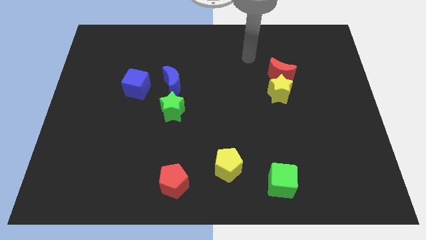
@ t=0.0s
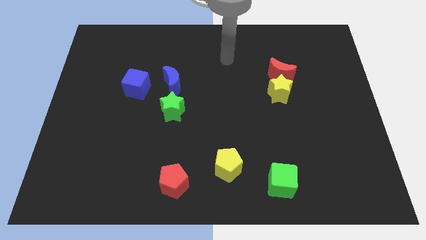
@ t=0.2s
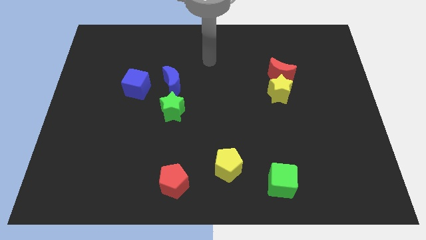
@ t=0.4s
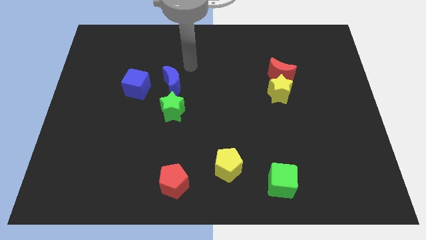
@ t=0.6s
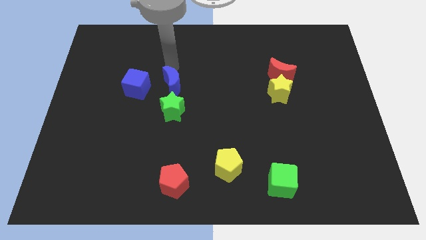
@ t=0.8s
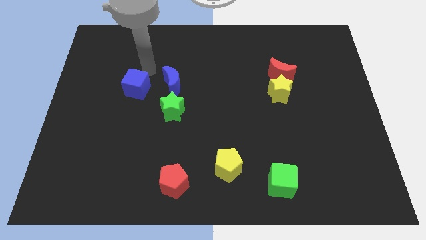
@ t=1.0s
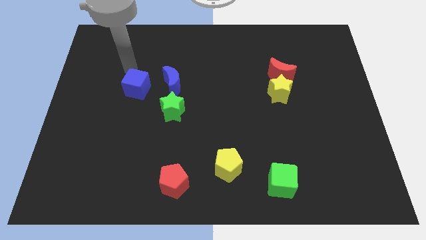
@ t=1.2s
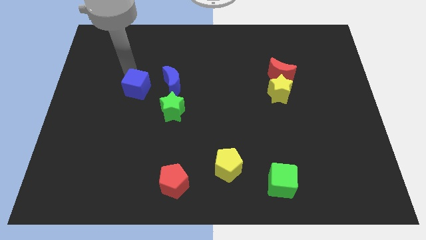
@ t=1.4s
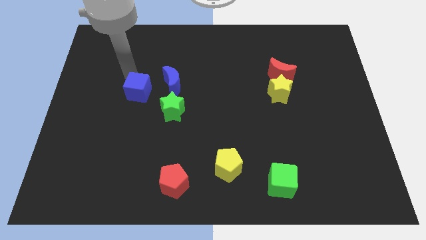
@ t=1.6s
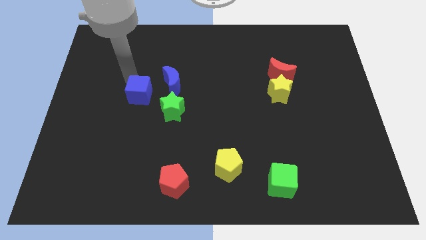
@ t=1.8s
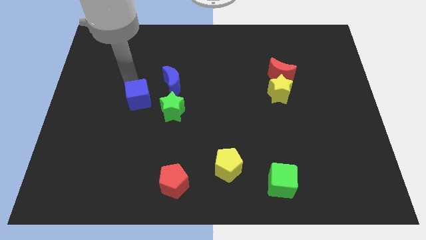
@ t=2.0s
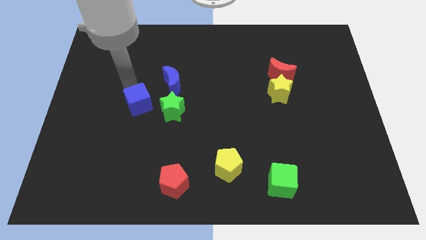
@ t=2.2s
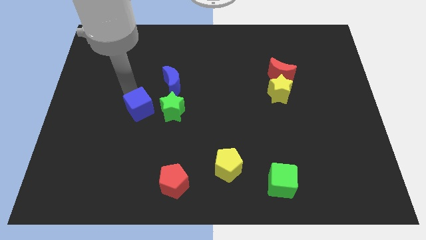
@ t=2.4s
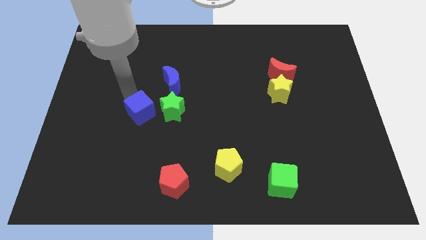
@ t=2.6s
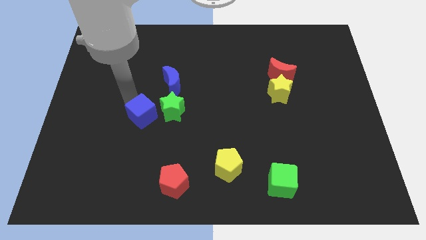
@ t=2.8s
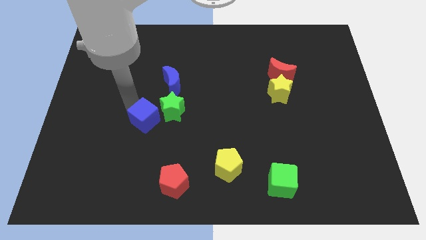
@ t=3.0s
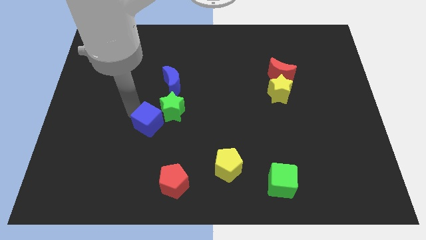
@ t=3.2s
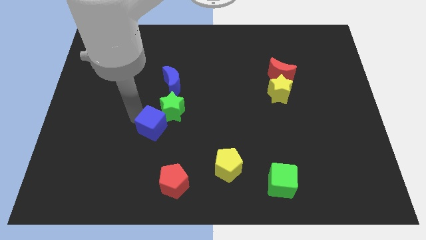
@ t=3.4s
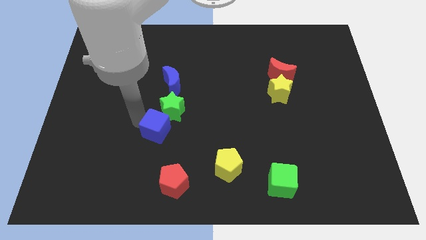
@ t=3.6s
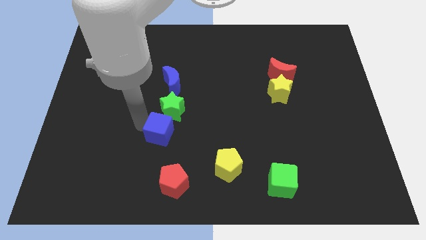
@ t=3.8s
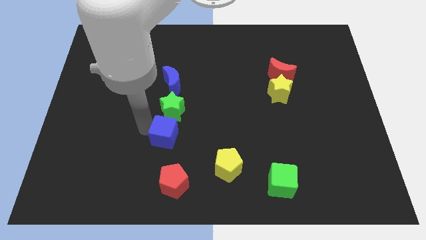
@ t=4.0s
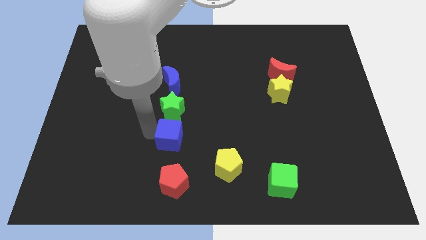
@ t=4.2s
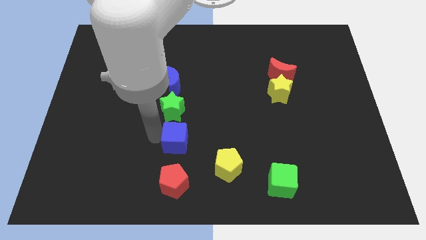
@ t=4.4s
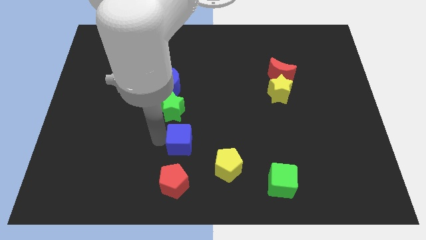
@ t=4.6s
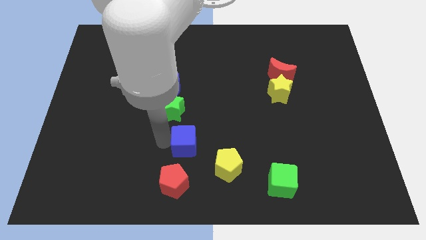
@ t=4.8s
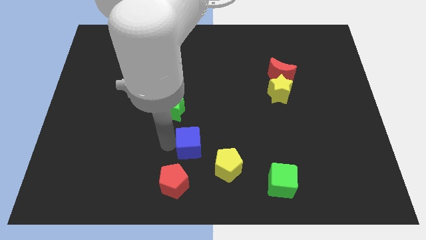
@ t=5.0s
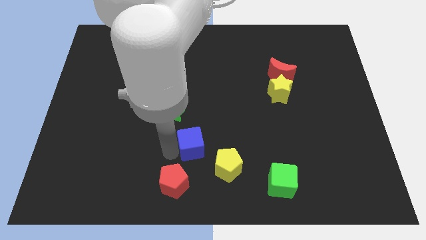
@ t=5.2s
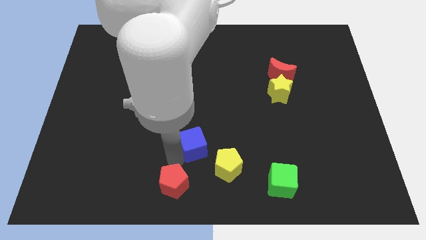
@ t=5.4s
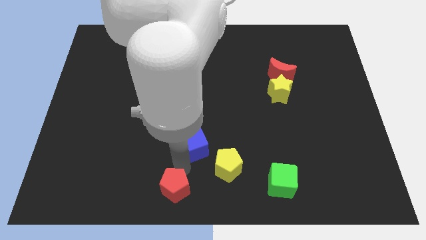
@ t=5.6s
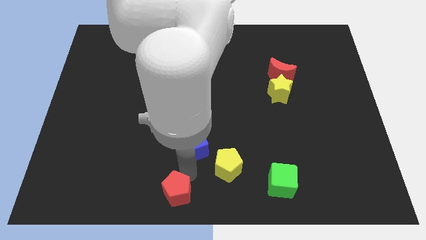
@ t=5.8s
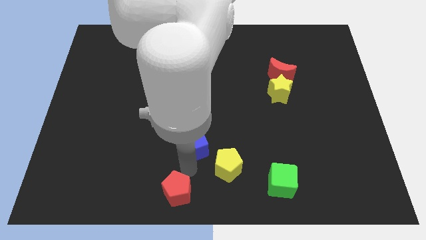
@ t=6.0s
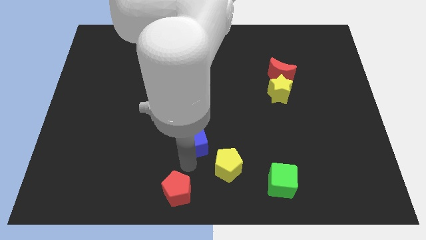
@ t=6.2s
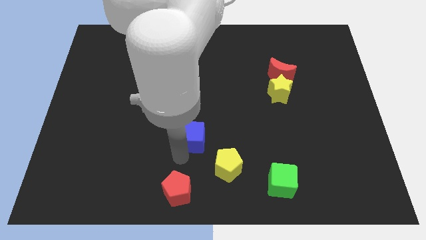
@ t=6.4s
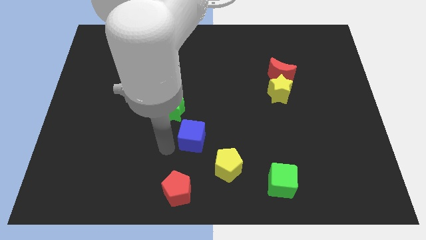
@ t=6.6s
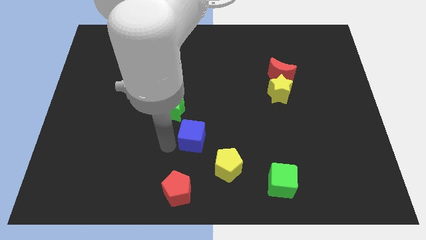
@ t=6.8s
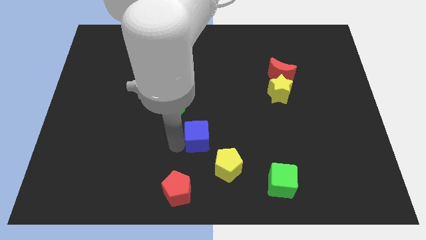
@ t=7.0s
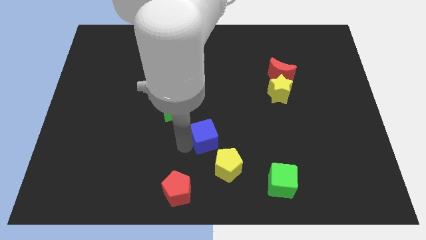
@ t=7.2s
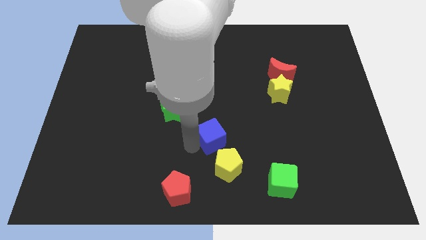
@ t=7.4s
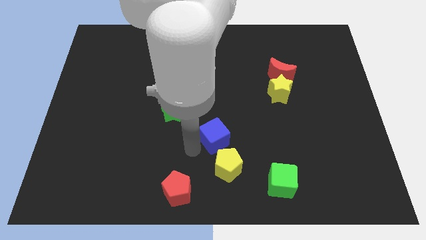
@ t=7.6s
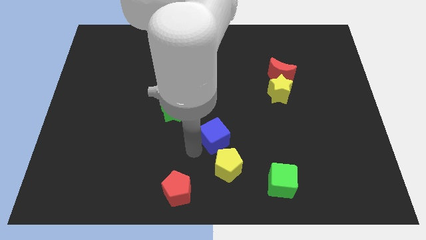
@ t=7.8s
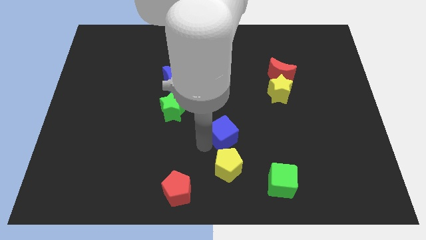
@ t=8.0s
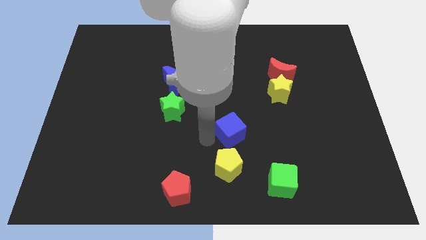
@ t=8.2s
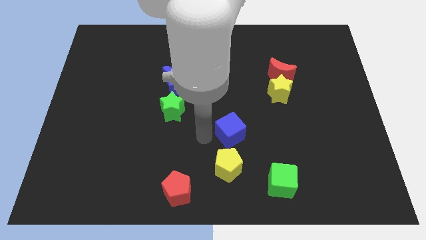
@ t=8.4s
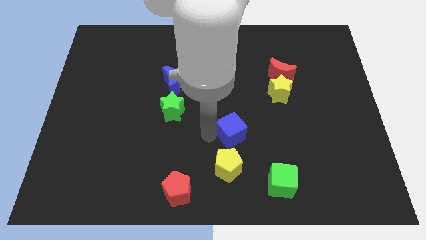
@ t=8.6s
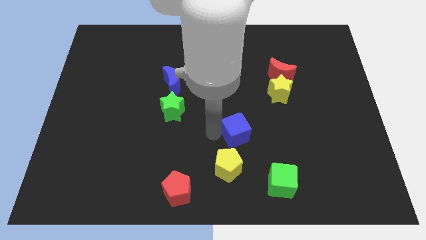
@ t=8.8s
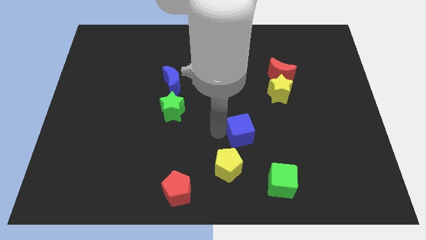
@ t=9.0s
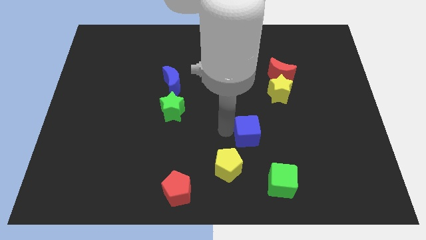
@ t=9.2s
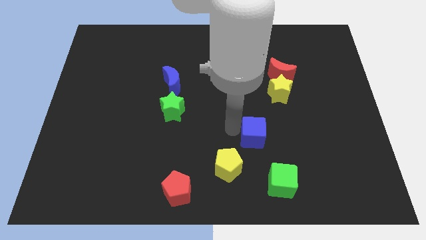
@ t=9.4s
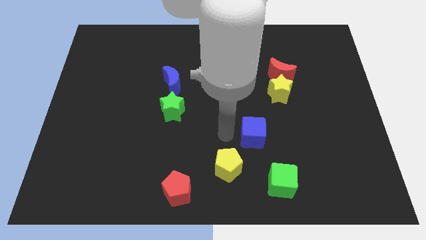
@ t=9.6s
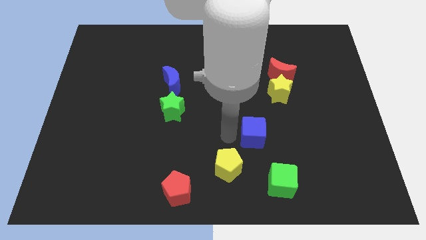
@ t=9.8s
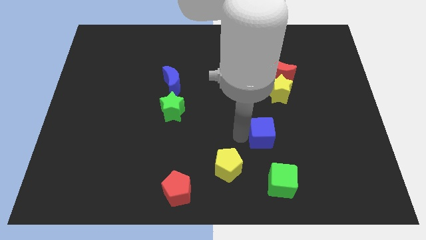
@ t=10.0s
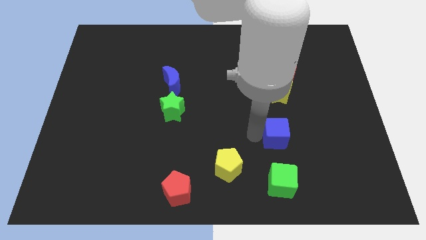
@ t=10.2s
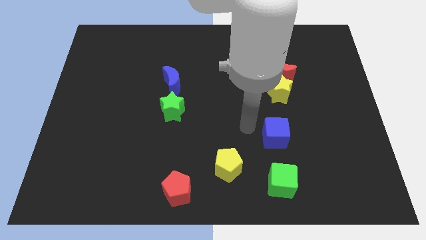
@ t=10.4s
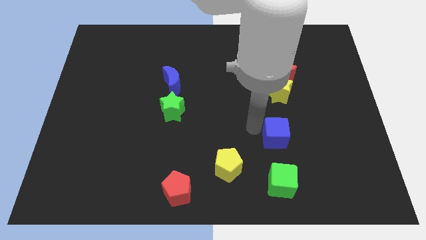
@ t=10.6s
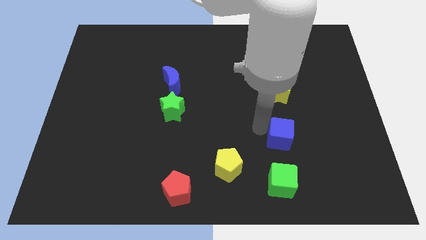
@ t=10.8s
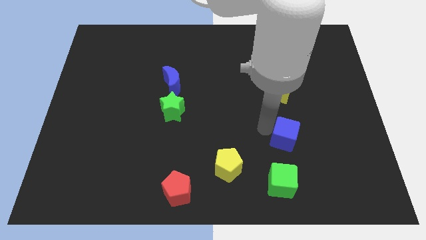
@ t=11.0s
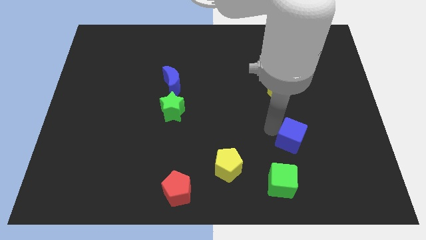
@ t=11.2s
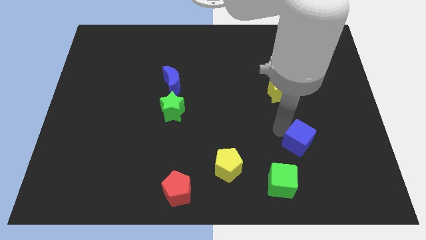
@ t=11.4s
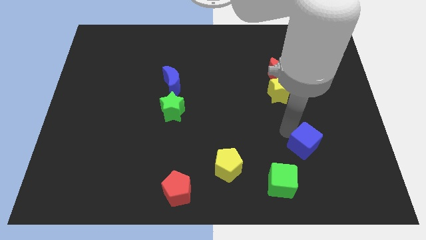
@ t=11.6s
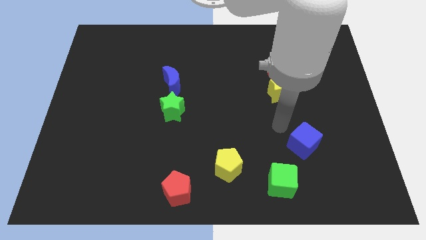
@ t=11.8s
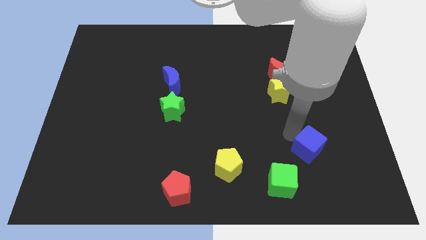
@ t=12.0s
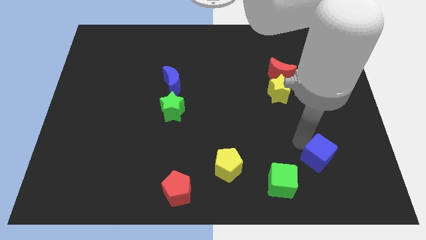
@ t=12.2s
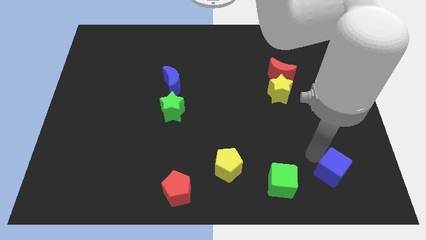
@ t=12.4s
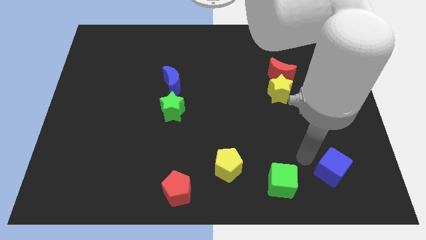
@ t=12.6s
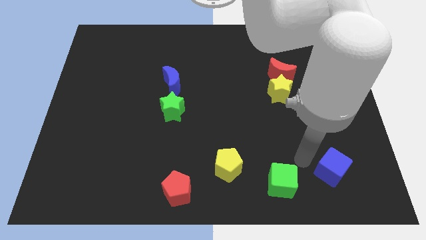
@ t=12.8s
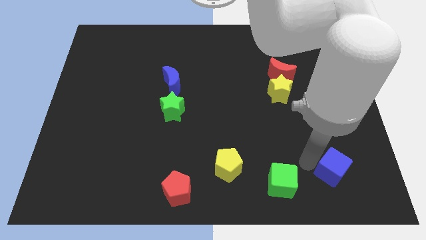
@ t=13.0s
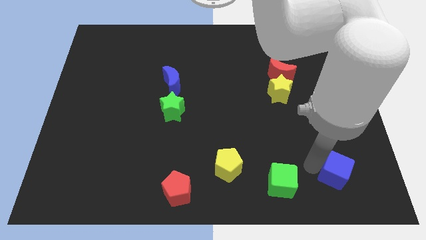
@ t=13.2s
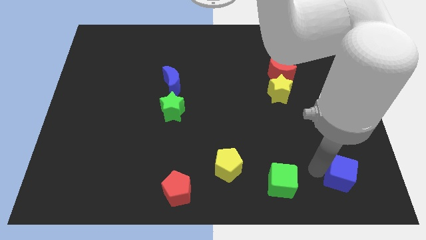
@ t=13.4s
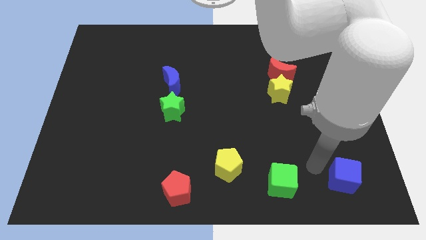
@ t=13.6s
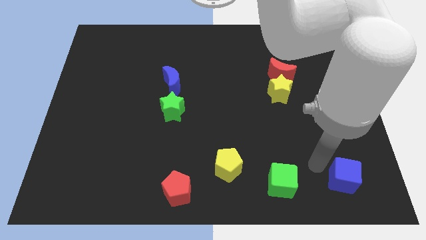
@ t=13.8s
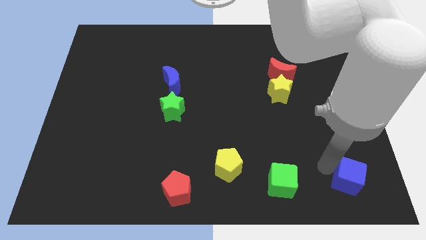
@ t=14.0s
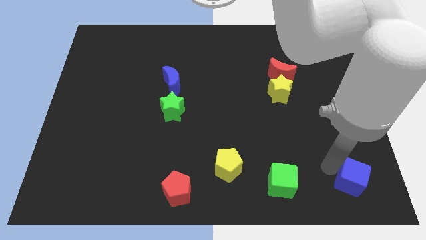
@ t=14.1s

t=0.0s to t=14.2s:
push the blue cube to the bottom right of the board

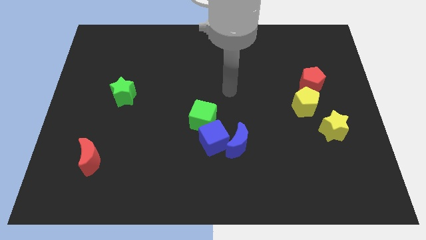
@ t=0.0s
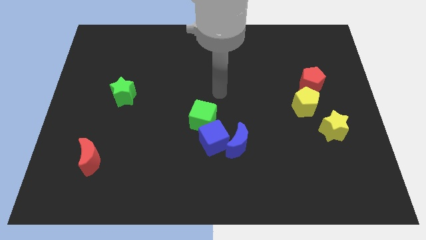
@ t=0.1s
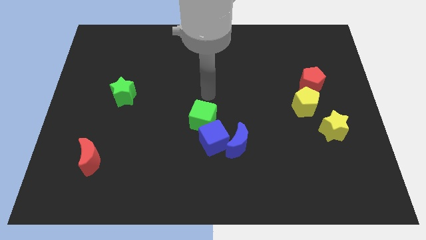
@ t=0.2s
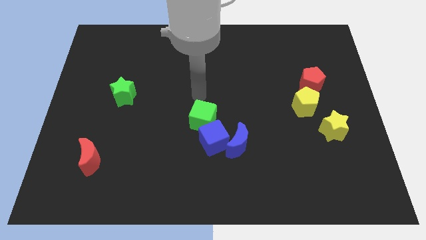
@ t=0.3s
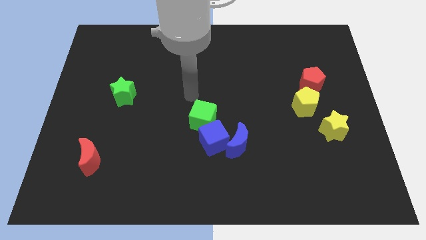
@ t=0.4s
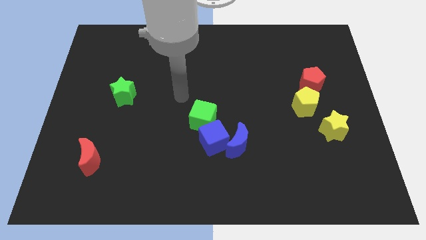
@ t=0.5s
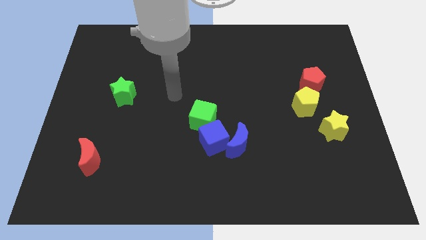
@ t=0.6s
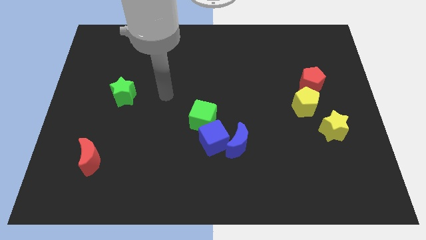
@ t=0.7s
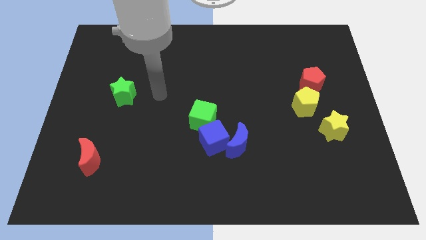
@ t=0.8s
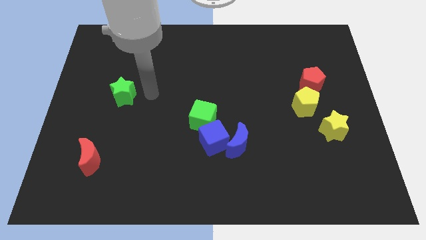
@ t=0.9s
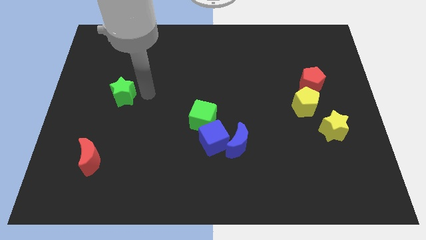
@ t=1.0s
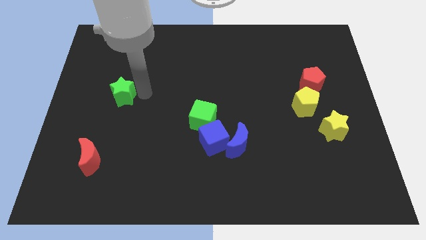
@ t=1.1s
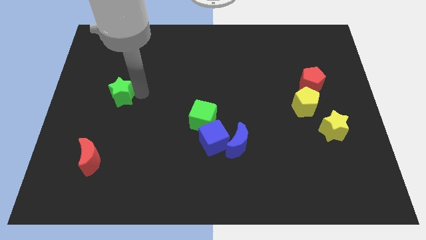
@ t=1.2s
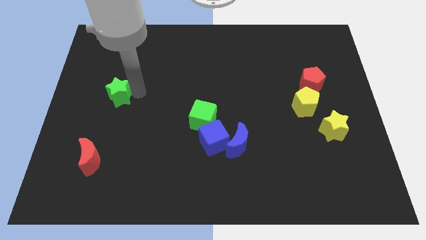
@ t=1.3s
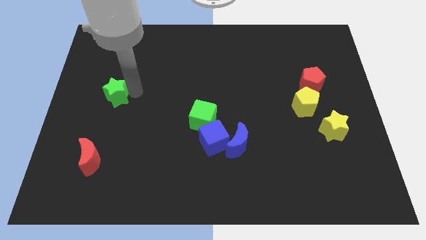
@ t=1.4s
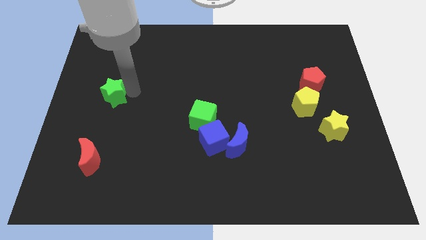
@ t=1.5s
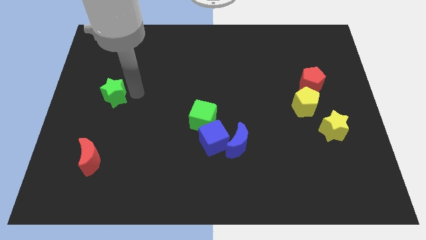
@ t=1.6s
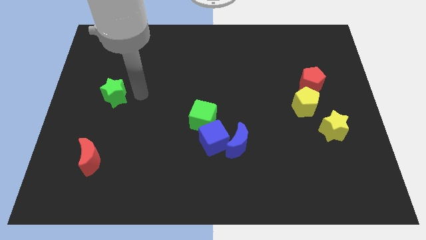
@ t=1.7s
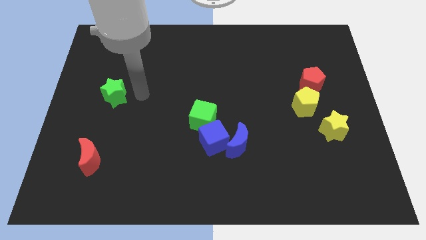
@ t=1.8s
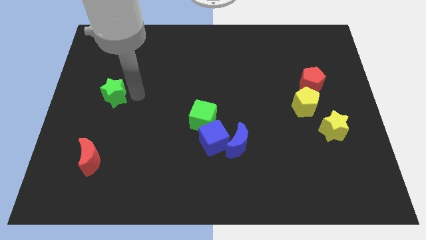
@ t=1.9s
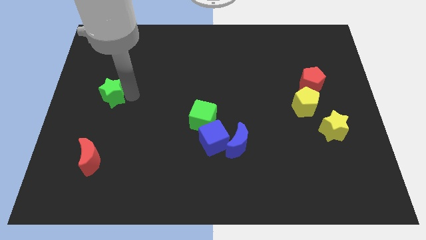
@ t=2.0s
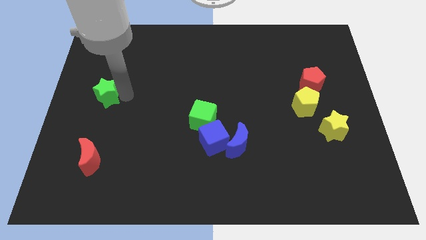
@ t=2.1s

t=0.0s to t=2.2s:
push the green star to the left side
